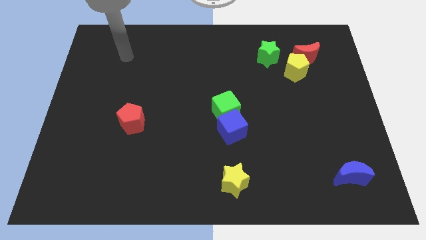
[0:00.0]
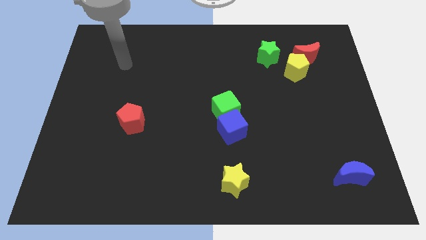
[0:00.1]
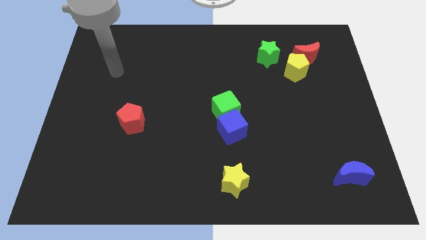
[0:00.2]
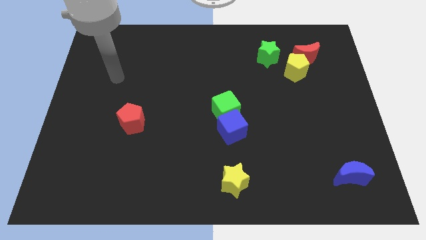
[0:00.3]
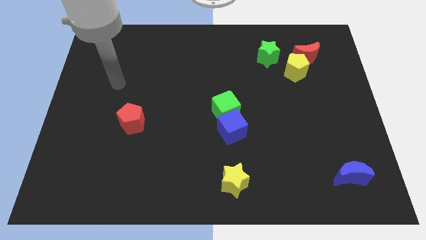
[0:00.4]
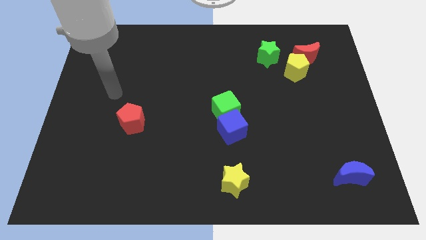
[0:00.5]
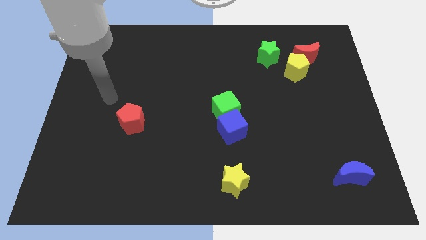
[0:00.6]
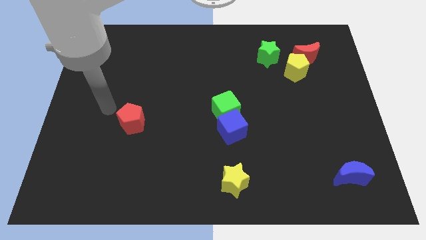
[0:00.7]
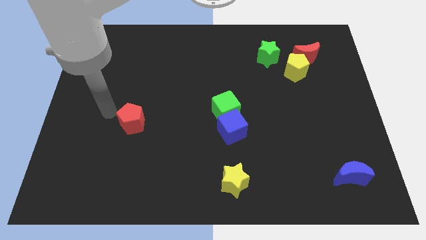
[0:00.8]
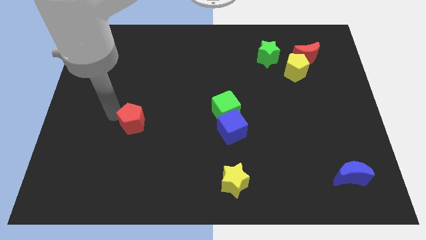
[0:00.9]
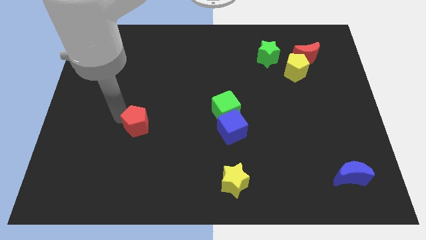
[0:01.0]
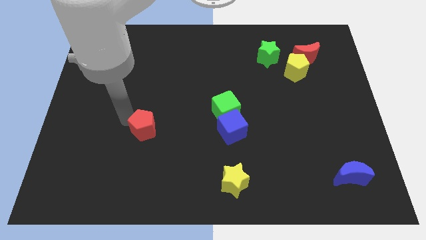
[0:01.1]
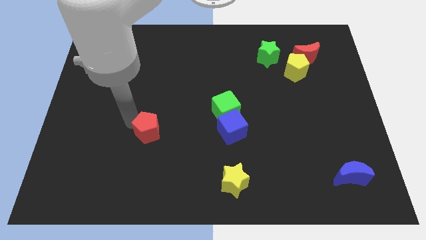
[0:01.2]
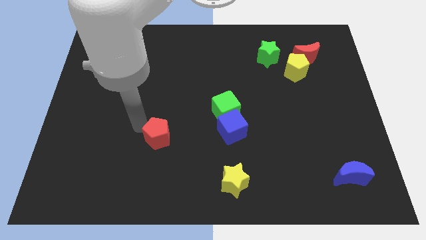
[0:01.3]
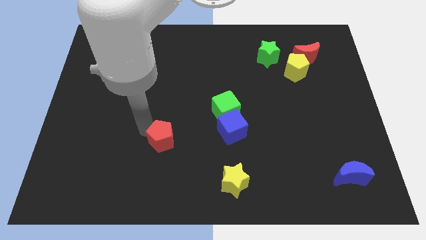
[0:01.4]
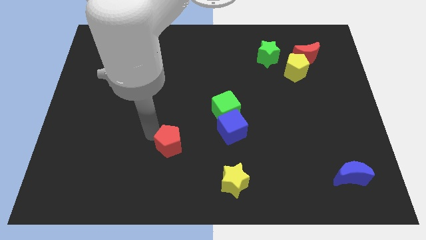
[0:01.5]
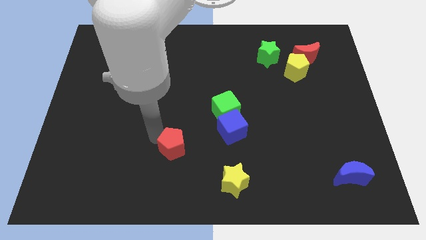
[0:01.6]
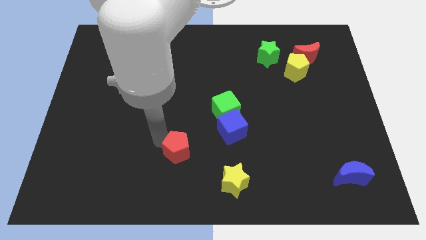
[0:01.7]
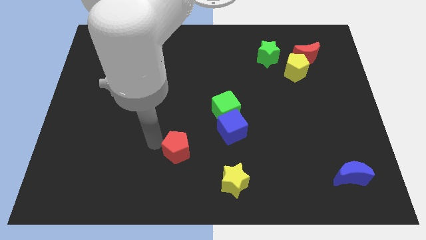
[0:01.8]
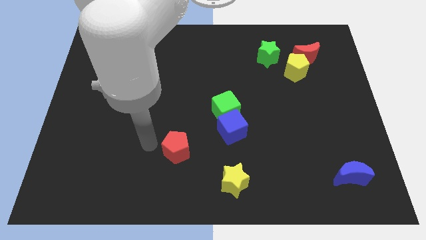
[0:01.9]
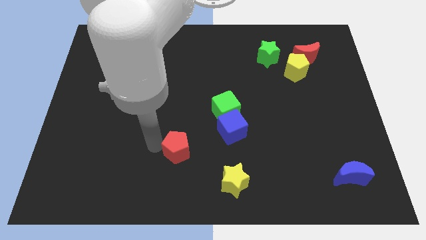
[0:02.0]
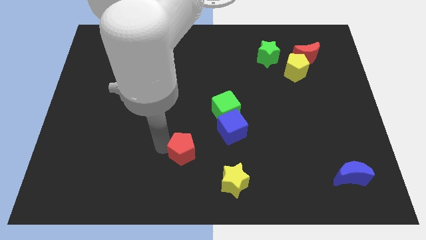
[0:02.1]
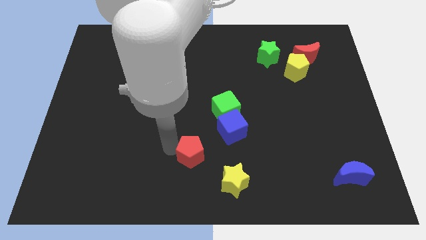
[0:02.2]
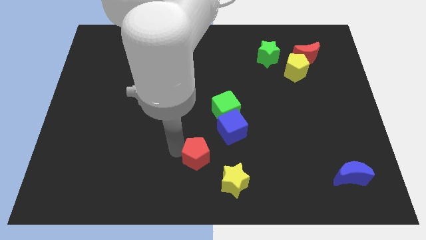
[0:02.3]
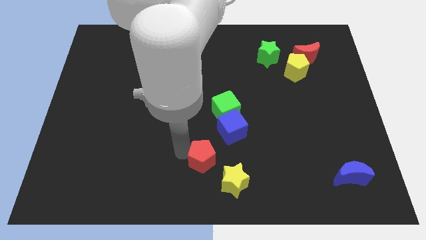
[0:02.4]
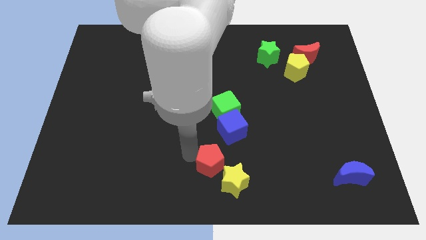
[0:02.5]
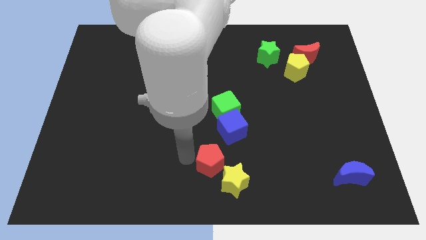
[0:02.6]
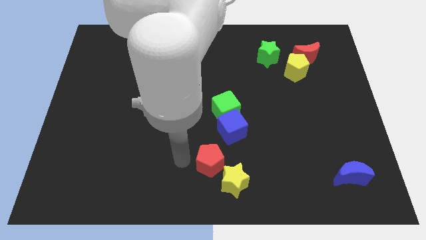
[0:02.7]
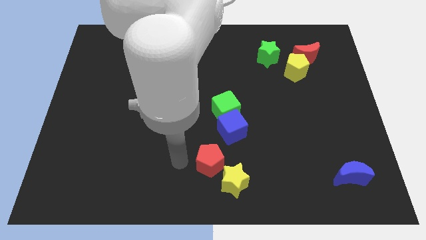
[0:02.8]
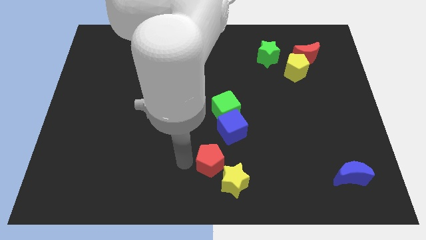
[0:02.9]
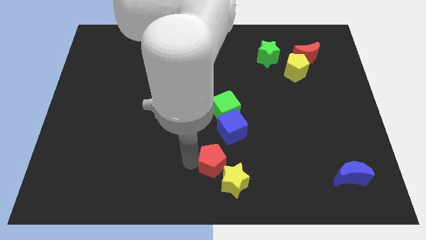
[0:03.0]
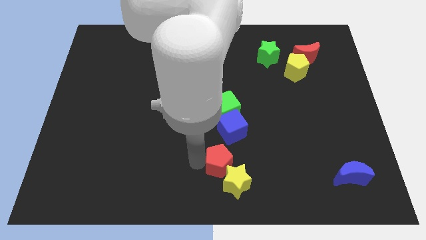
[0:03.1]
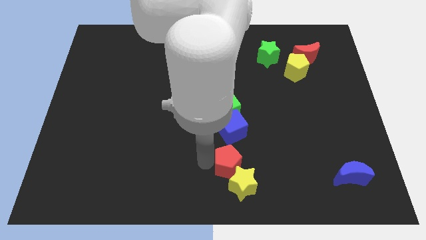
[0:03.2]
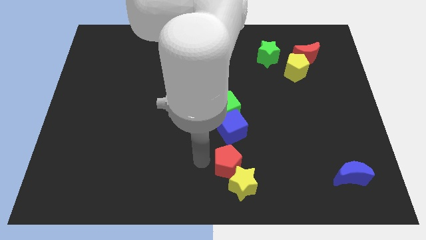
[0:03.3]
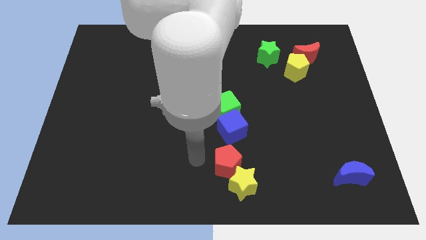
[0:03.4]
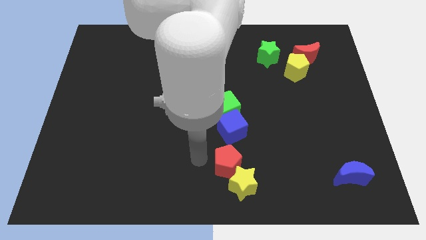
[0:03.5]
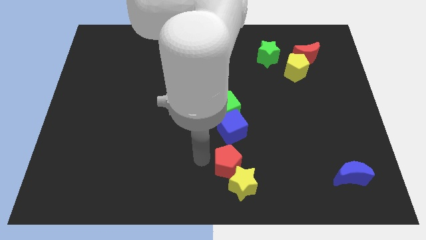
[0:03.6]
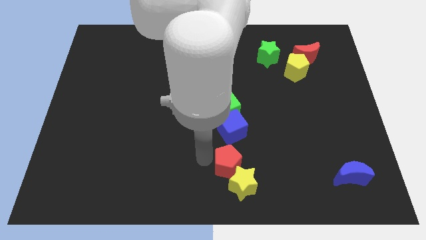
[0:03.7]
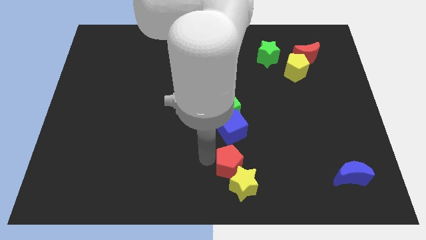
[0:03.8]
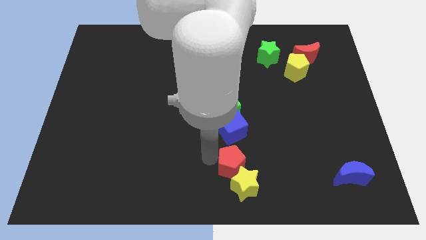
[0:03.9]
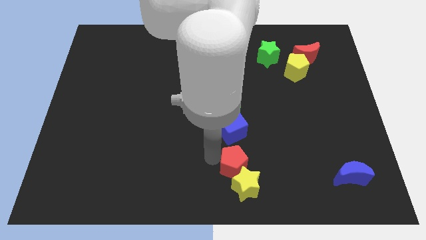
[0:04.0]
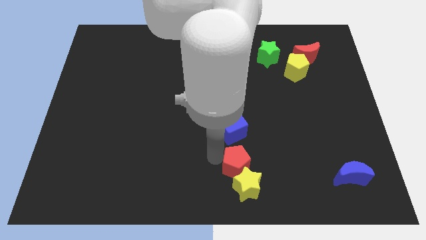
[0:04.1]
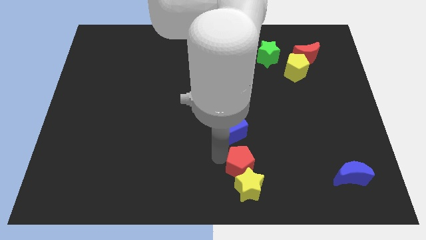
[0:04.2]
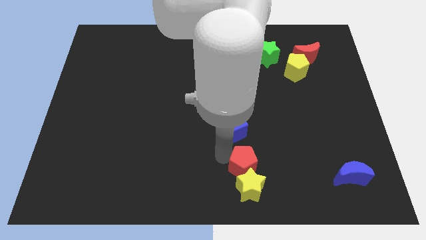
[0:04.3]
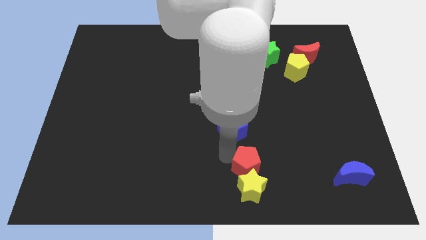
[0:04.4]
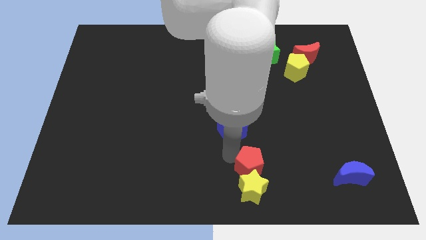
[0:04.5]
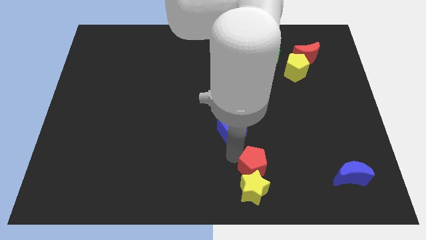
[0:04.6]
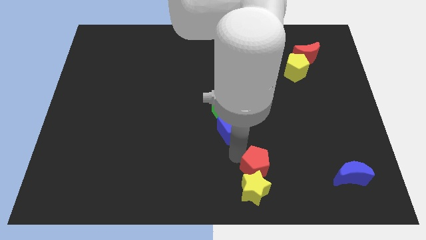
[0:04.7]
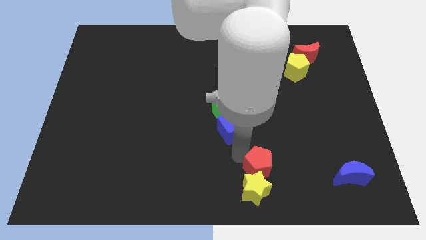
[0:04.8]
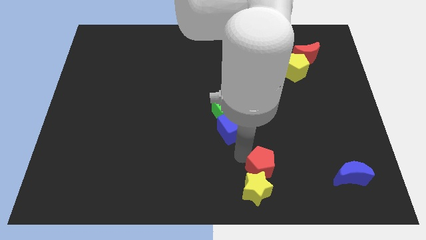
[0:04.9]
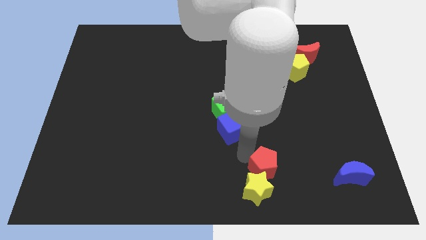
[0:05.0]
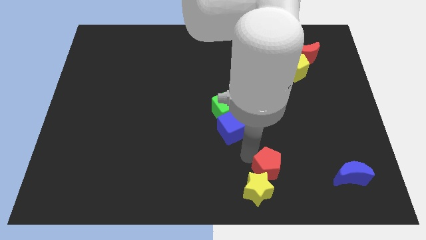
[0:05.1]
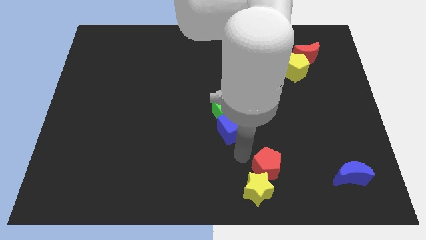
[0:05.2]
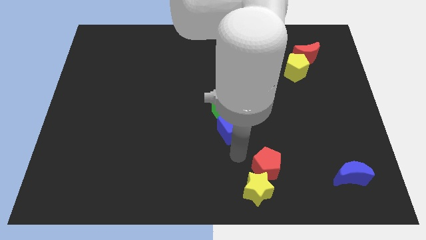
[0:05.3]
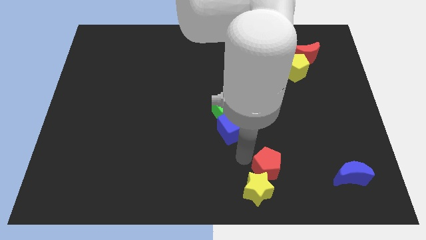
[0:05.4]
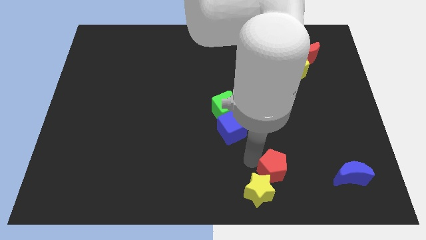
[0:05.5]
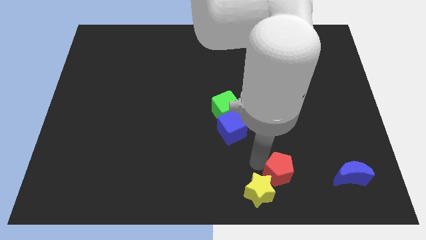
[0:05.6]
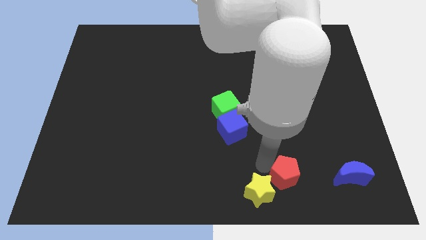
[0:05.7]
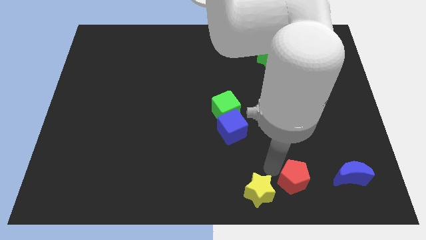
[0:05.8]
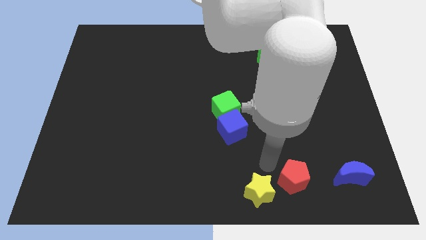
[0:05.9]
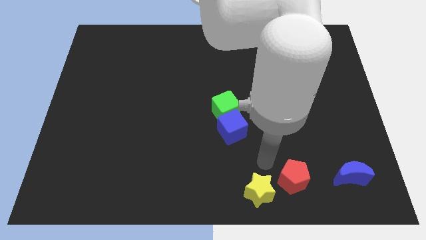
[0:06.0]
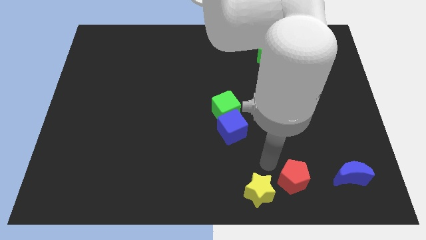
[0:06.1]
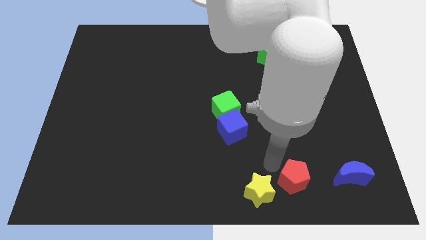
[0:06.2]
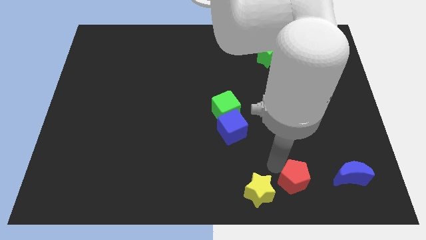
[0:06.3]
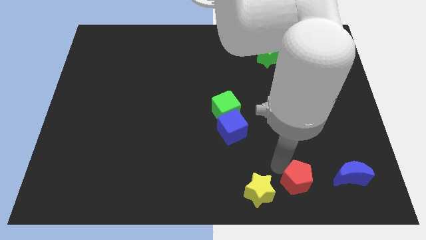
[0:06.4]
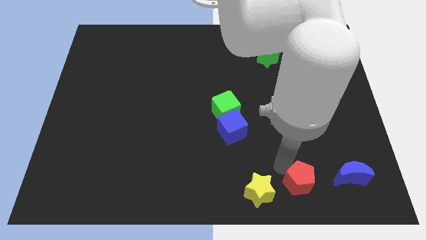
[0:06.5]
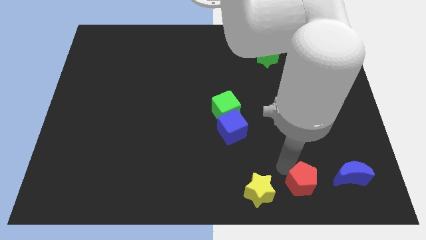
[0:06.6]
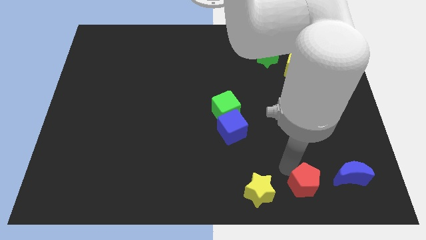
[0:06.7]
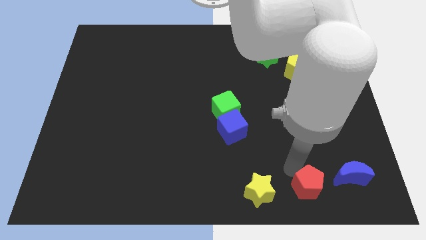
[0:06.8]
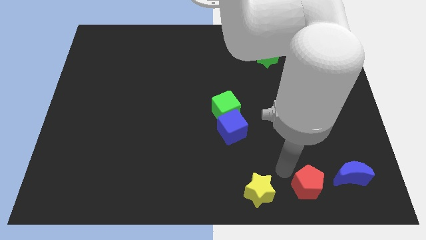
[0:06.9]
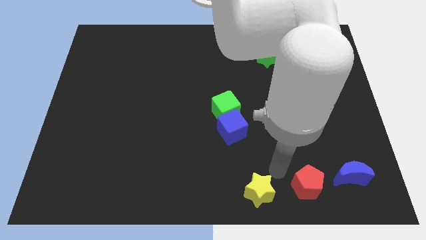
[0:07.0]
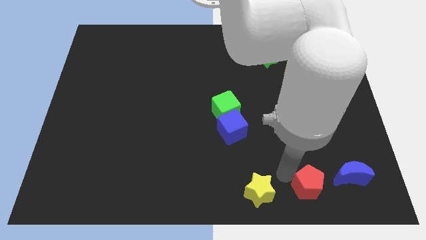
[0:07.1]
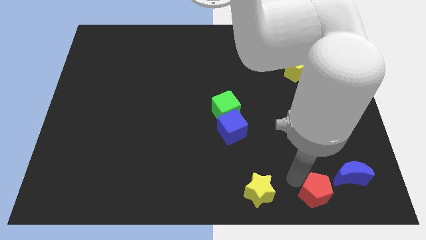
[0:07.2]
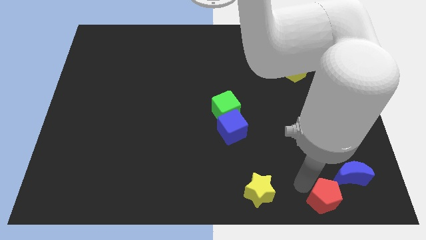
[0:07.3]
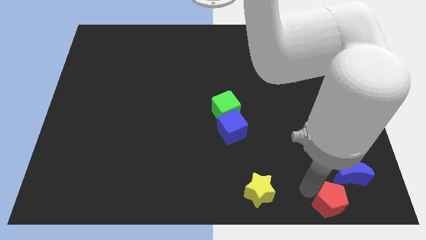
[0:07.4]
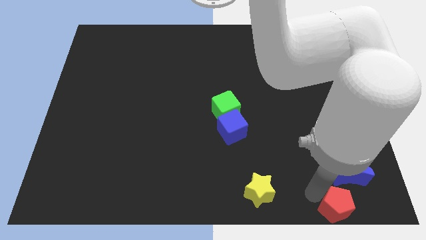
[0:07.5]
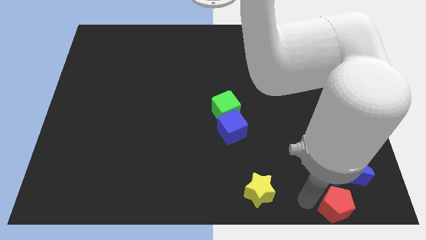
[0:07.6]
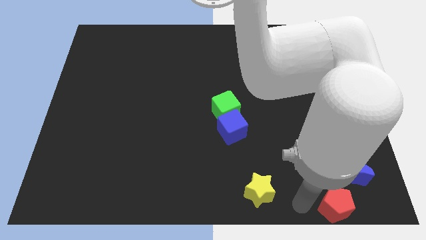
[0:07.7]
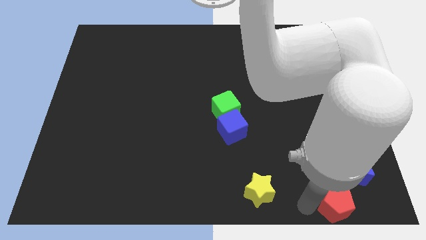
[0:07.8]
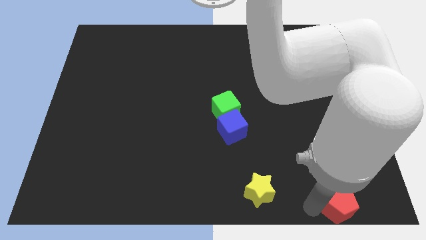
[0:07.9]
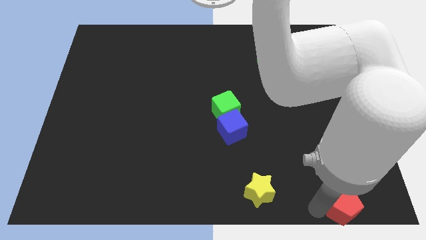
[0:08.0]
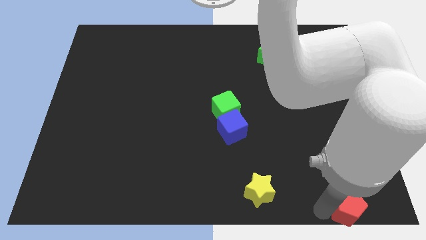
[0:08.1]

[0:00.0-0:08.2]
move the red pentagon to the bottom right
